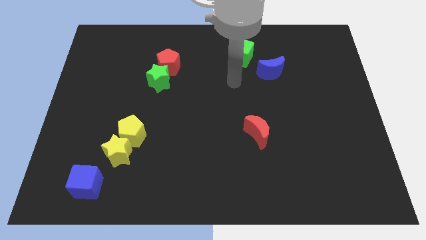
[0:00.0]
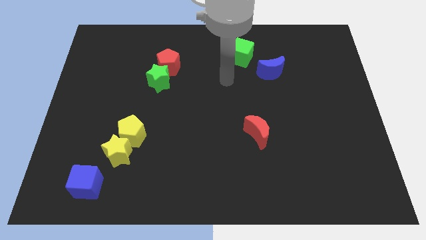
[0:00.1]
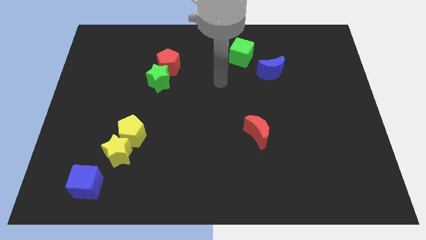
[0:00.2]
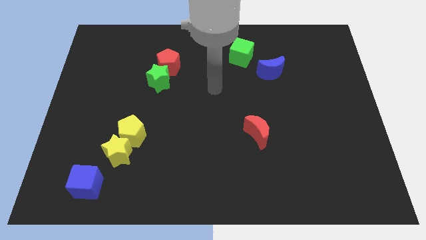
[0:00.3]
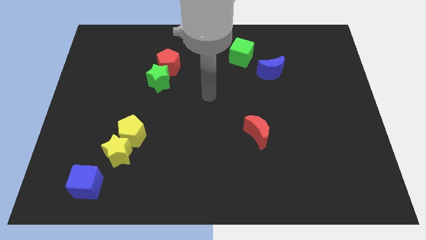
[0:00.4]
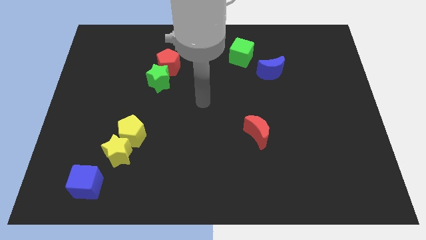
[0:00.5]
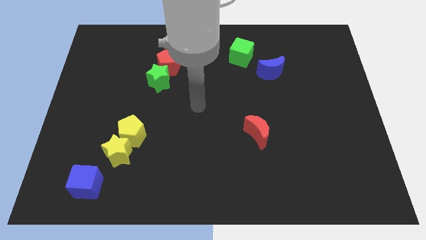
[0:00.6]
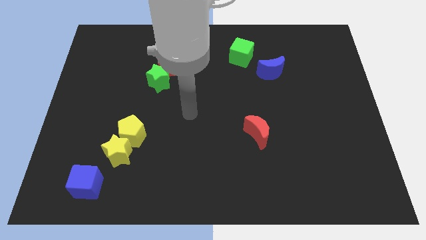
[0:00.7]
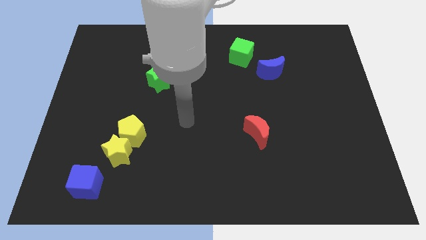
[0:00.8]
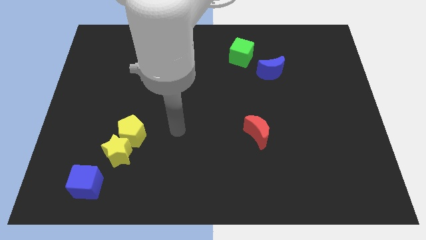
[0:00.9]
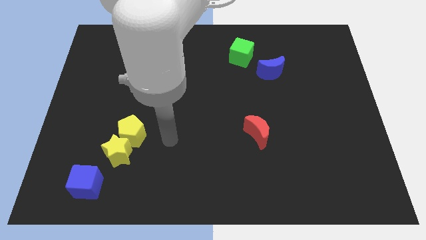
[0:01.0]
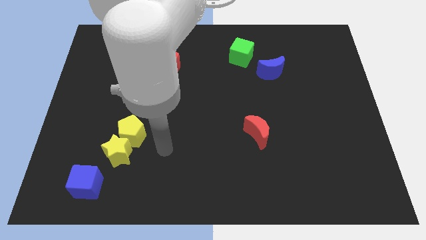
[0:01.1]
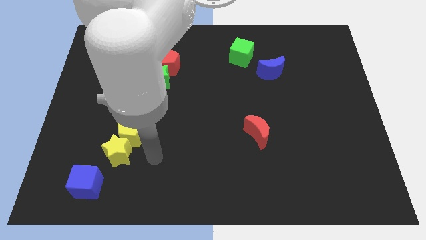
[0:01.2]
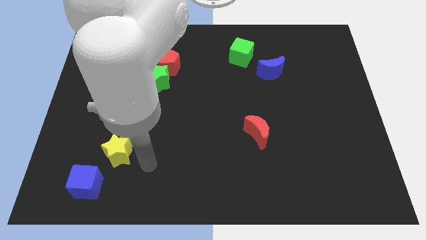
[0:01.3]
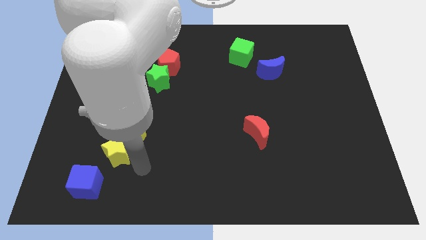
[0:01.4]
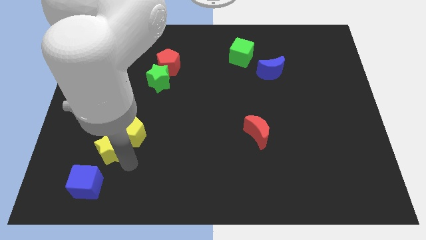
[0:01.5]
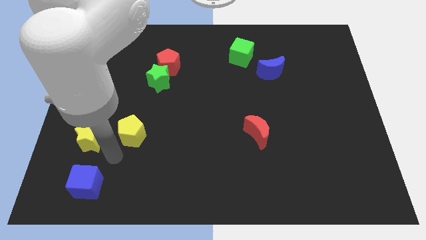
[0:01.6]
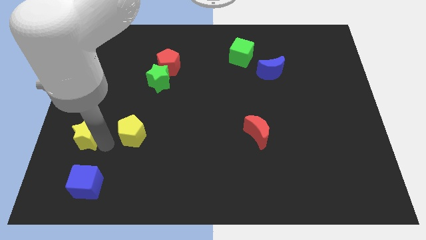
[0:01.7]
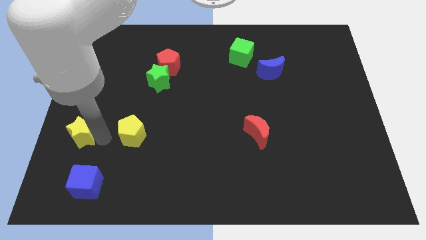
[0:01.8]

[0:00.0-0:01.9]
separate the yellow pentagon from the yellow star

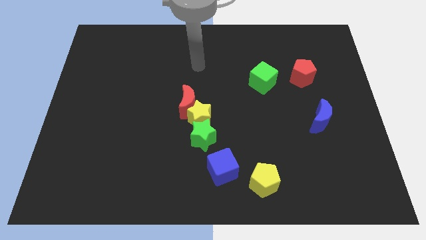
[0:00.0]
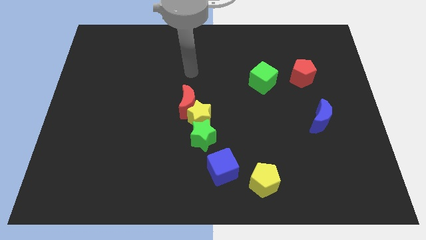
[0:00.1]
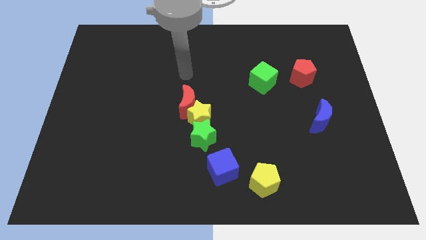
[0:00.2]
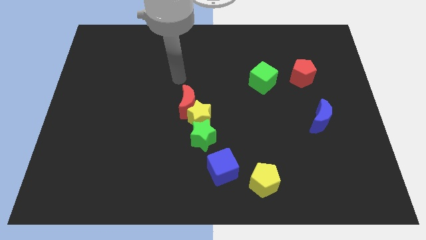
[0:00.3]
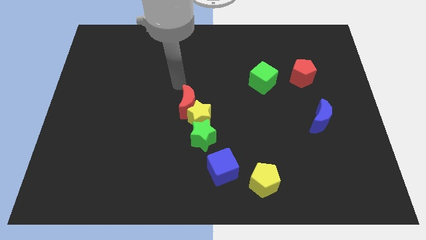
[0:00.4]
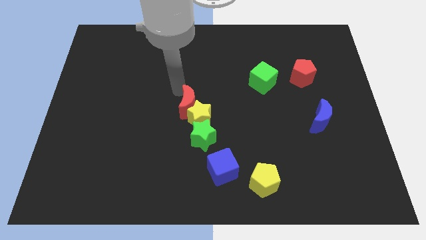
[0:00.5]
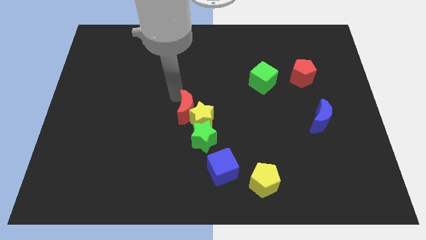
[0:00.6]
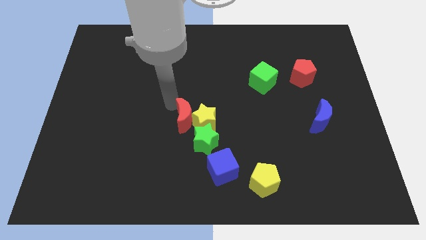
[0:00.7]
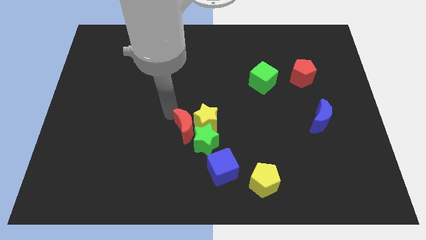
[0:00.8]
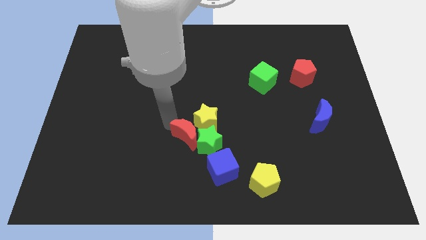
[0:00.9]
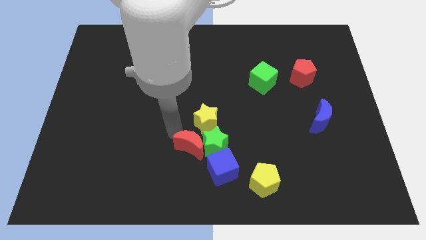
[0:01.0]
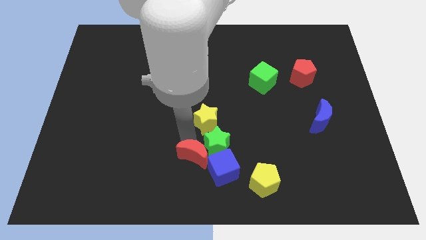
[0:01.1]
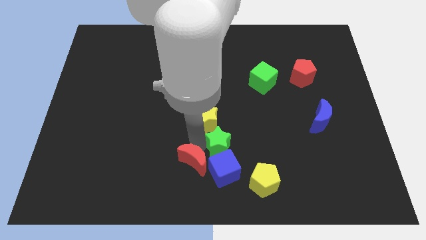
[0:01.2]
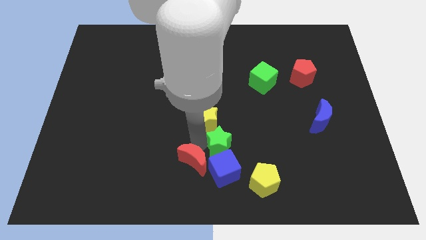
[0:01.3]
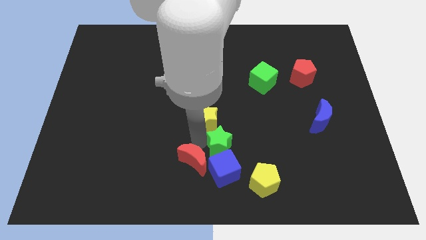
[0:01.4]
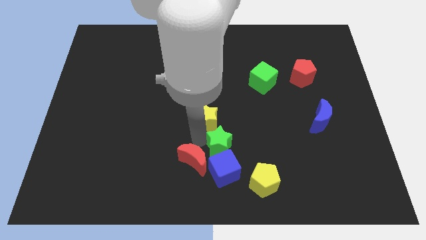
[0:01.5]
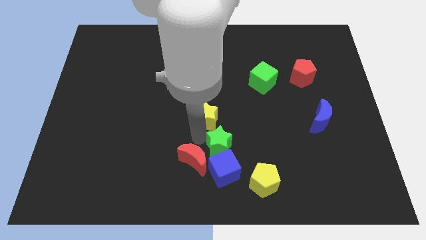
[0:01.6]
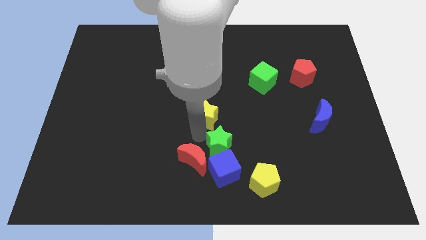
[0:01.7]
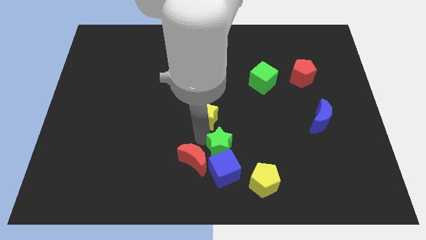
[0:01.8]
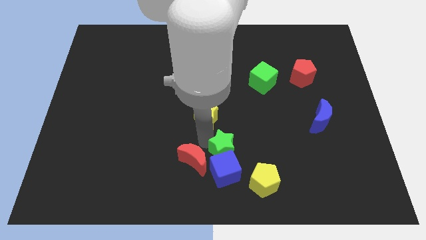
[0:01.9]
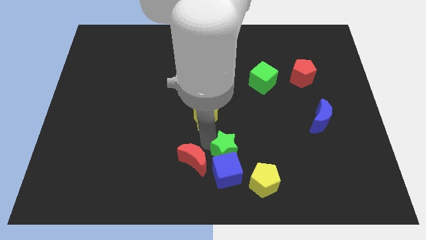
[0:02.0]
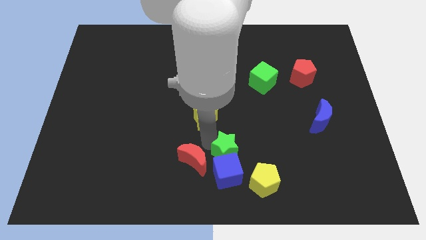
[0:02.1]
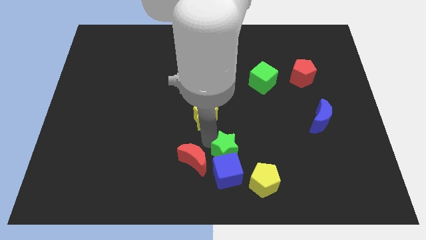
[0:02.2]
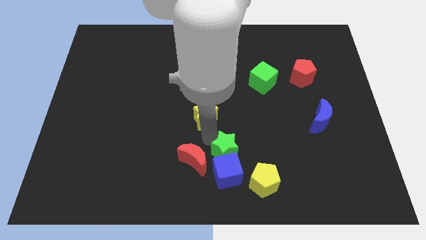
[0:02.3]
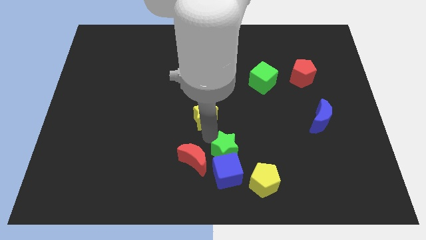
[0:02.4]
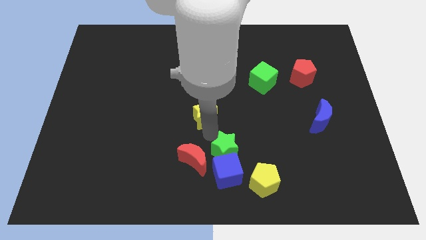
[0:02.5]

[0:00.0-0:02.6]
move the yellow star away from the red moon and green star

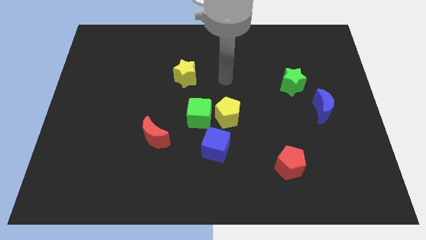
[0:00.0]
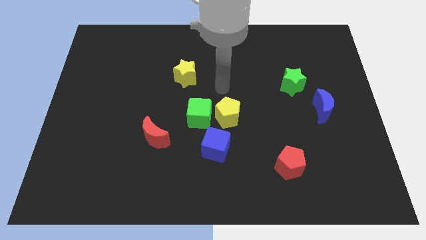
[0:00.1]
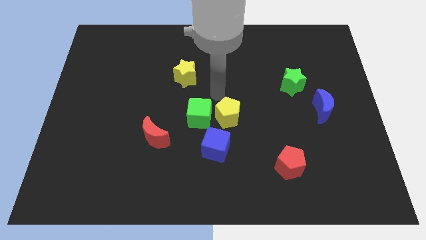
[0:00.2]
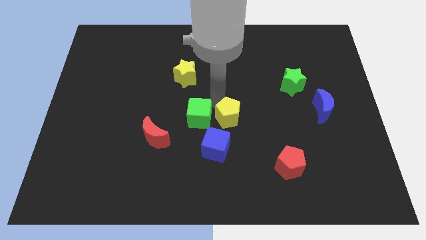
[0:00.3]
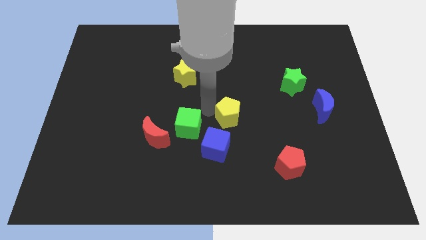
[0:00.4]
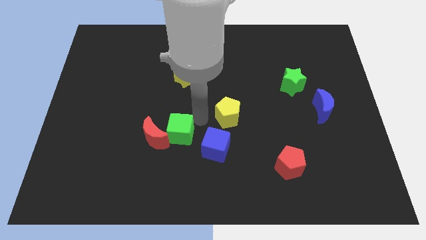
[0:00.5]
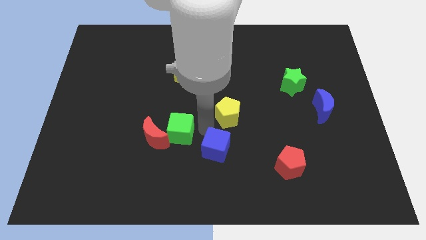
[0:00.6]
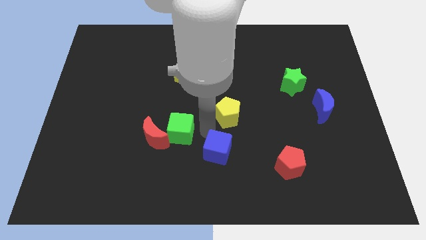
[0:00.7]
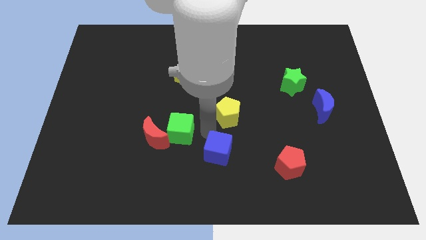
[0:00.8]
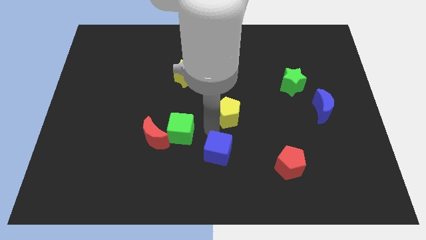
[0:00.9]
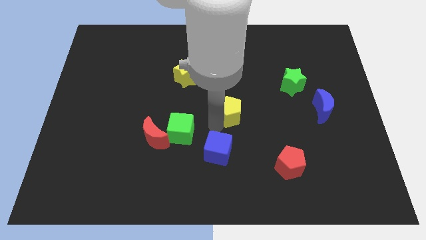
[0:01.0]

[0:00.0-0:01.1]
move the yellow pentagon away from the green cube and blue cube

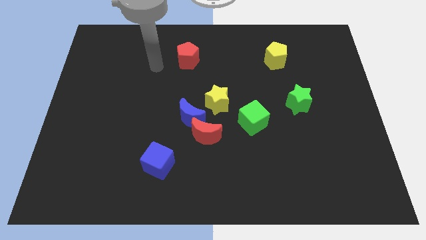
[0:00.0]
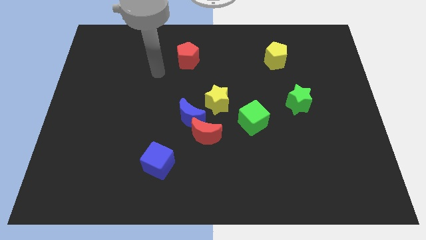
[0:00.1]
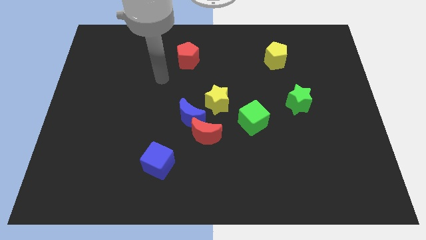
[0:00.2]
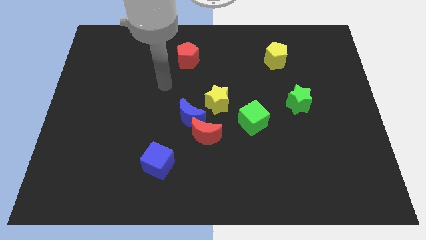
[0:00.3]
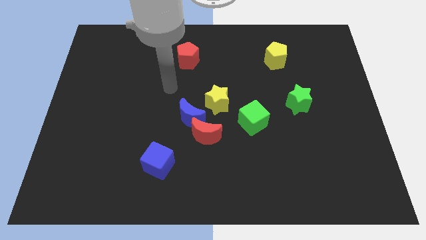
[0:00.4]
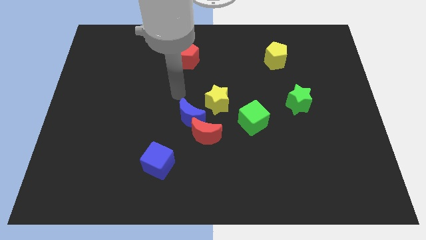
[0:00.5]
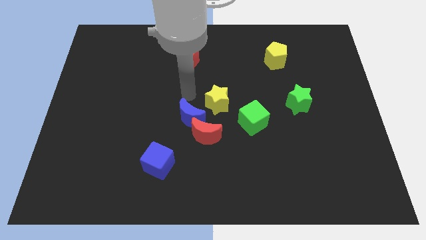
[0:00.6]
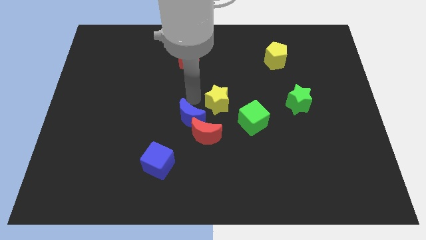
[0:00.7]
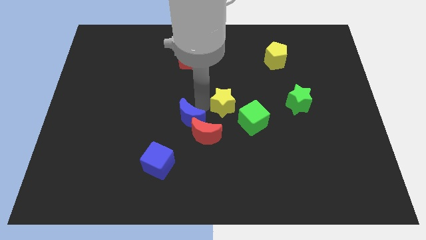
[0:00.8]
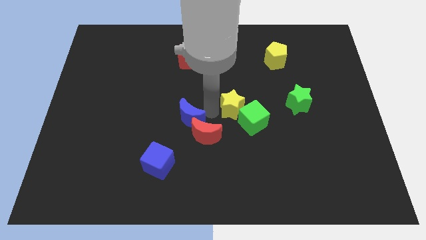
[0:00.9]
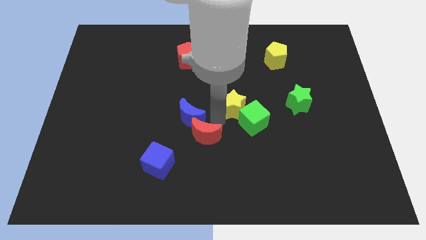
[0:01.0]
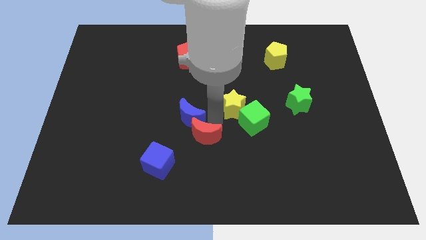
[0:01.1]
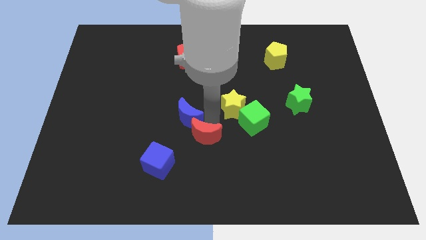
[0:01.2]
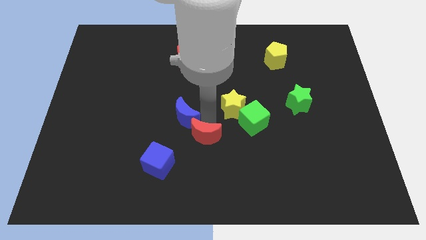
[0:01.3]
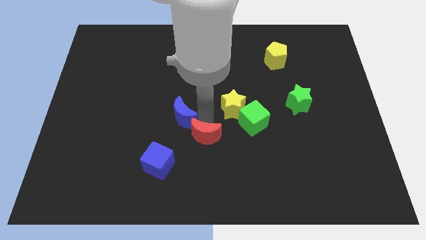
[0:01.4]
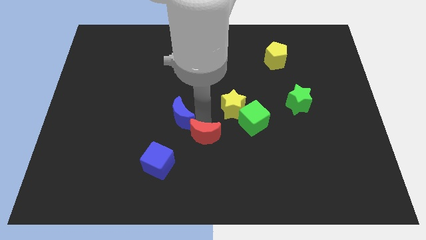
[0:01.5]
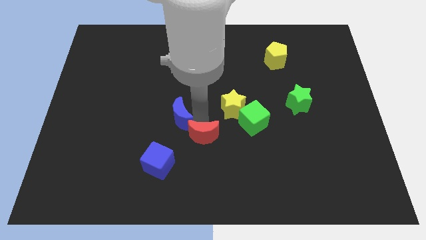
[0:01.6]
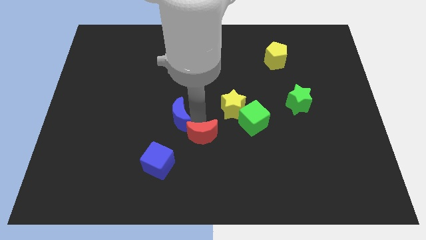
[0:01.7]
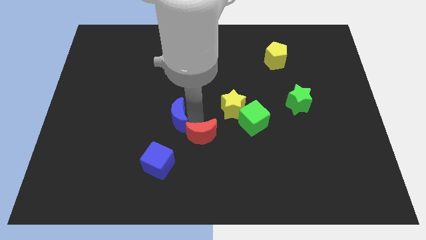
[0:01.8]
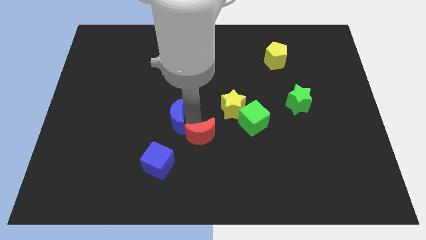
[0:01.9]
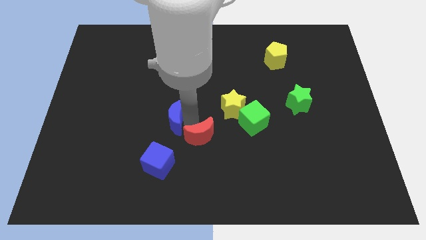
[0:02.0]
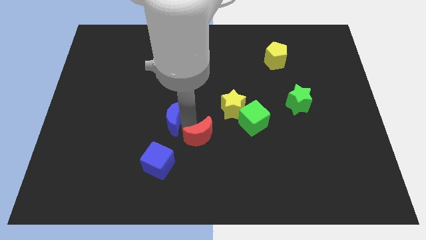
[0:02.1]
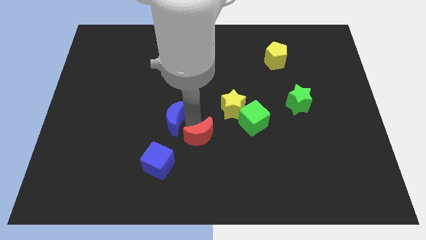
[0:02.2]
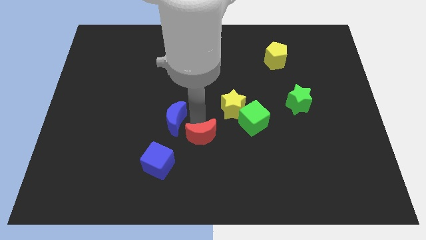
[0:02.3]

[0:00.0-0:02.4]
separate the blue moon from the red moon and yellow star

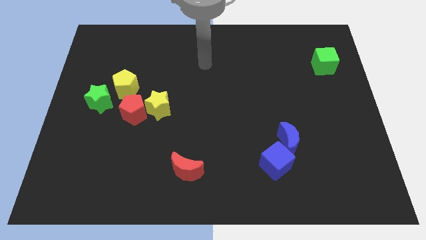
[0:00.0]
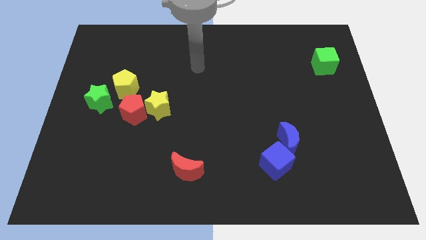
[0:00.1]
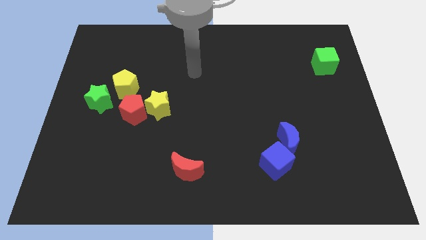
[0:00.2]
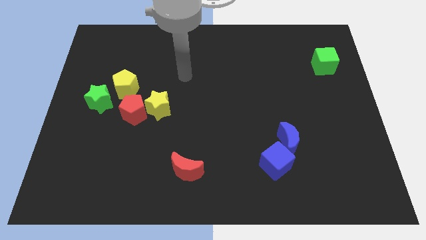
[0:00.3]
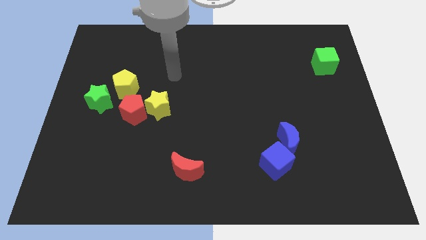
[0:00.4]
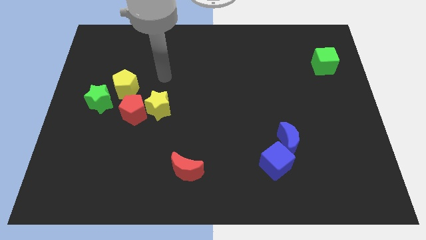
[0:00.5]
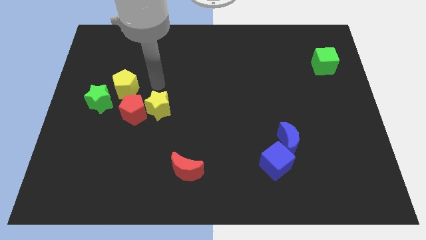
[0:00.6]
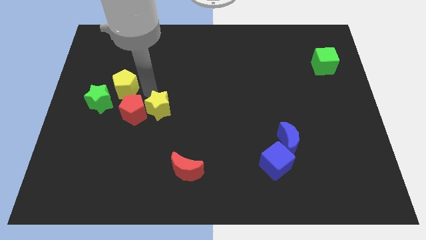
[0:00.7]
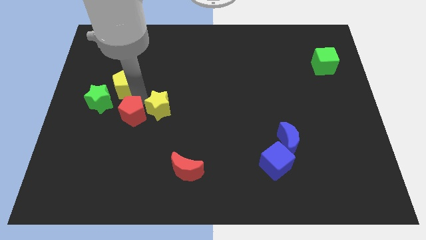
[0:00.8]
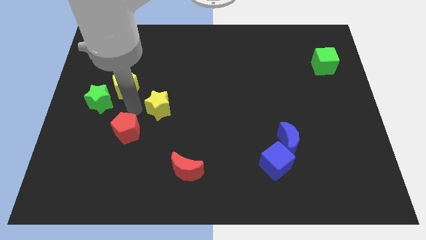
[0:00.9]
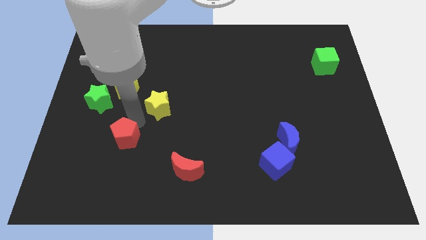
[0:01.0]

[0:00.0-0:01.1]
move the yellow star away from the red pentagon

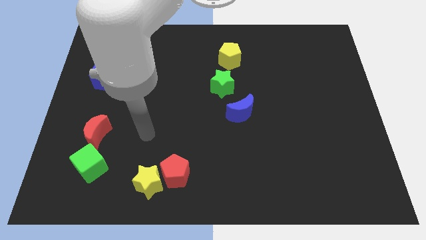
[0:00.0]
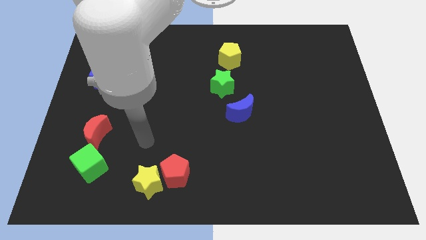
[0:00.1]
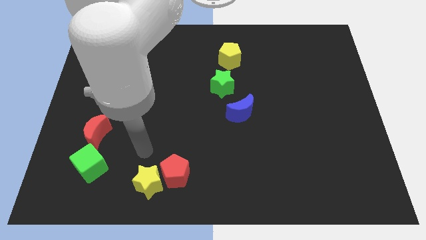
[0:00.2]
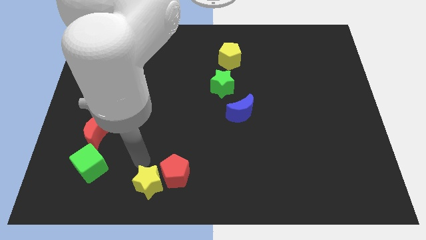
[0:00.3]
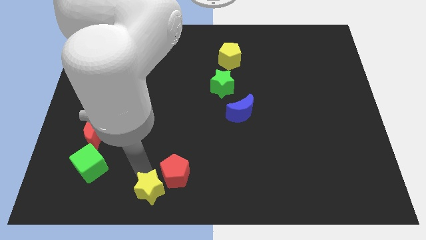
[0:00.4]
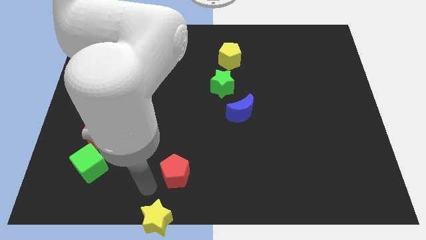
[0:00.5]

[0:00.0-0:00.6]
move the red pentagon away from the yellow star
